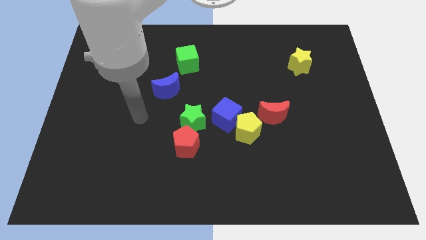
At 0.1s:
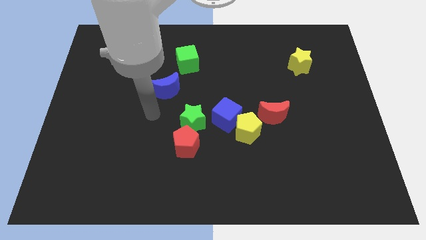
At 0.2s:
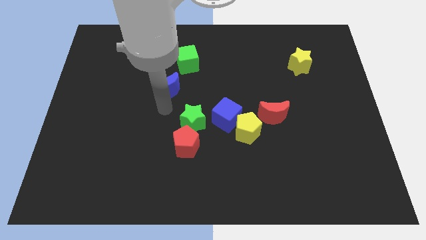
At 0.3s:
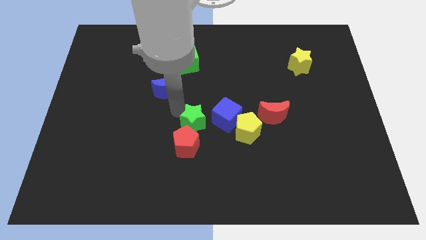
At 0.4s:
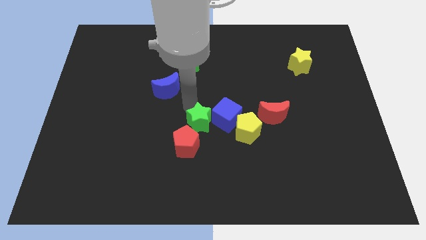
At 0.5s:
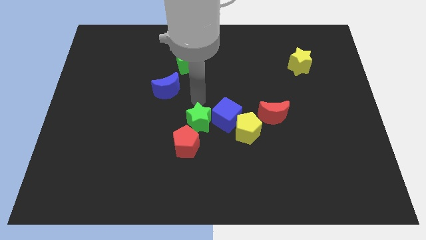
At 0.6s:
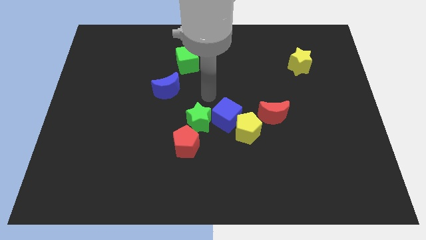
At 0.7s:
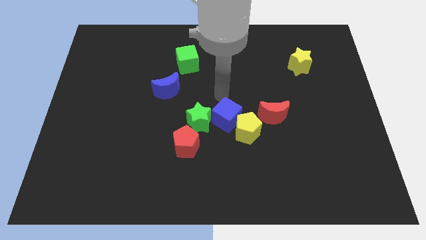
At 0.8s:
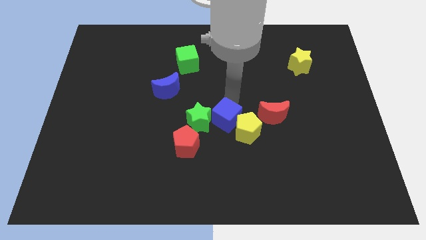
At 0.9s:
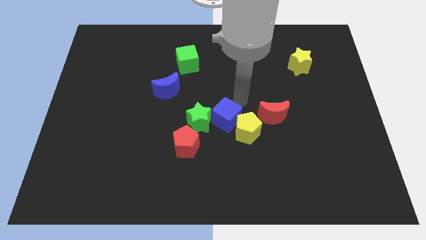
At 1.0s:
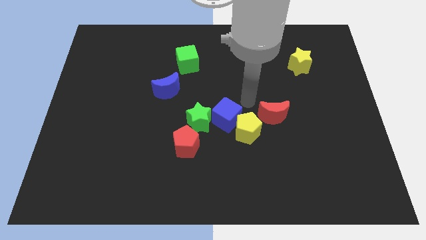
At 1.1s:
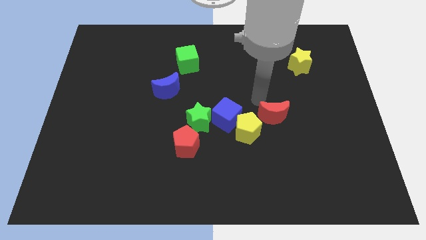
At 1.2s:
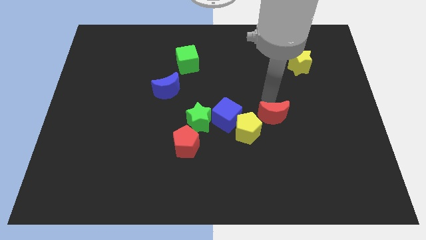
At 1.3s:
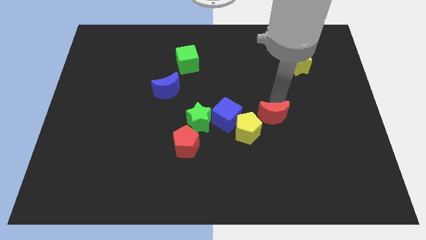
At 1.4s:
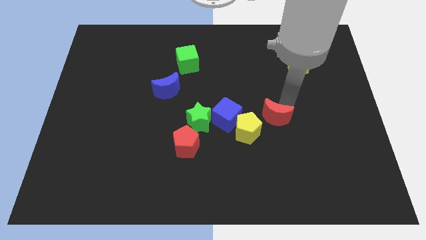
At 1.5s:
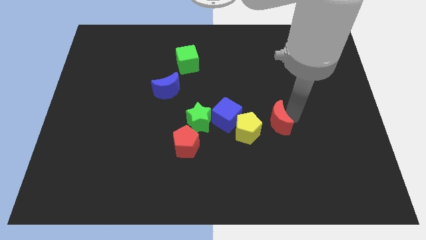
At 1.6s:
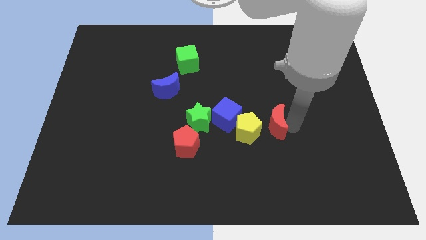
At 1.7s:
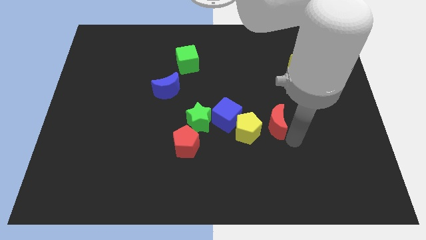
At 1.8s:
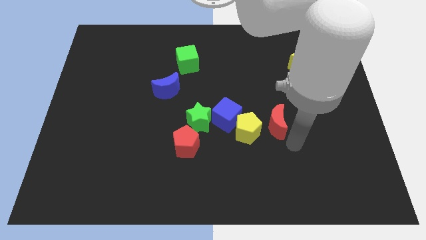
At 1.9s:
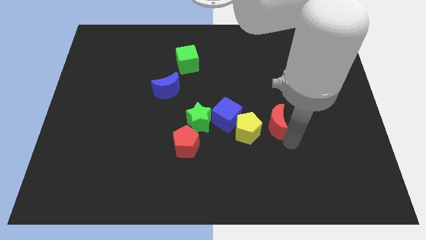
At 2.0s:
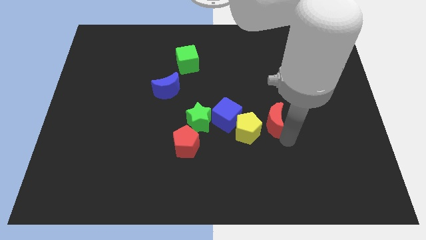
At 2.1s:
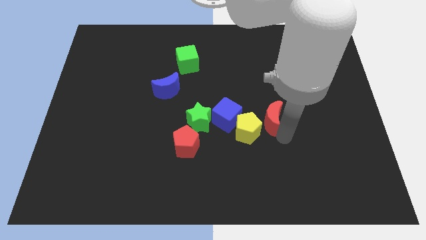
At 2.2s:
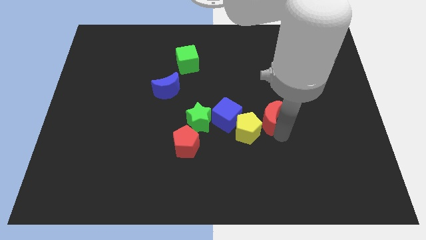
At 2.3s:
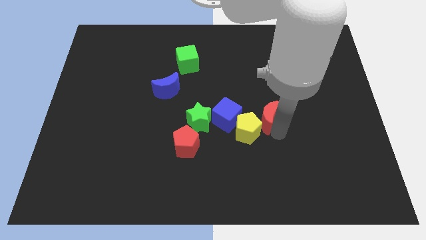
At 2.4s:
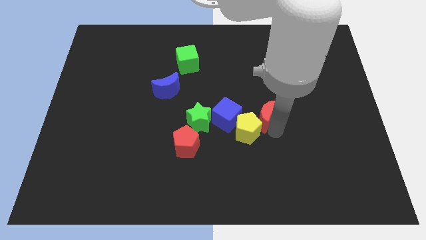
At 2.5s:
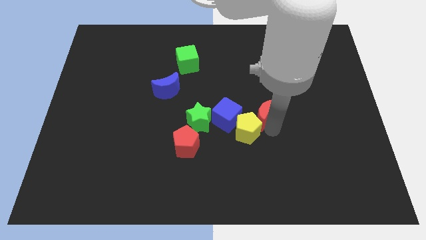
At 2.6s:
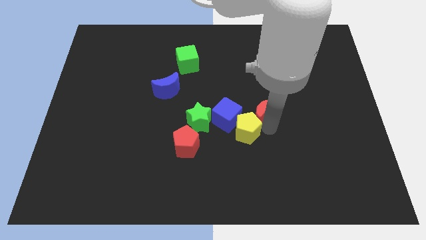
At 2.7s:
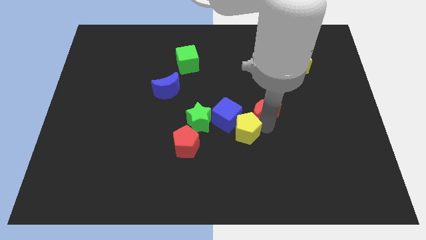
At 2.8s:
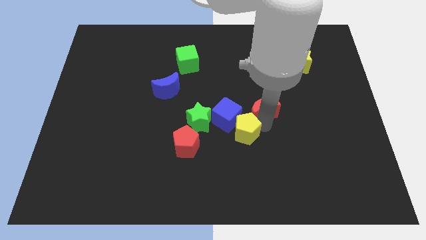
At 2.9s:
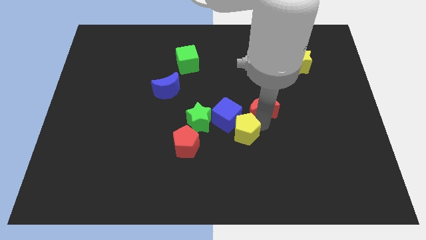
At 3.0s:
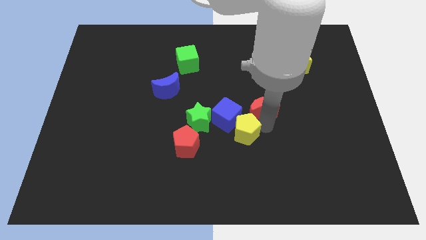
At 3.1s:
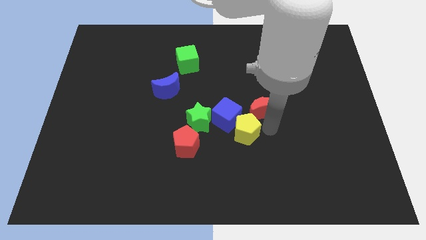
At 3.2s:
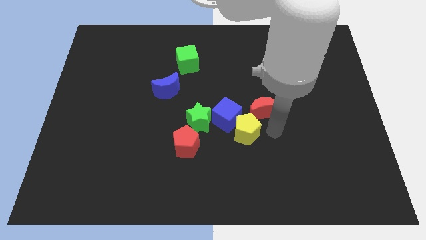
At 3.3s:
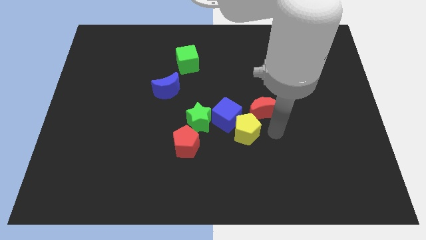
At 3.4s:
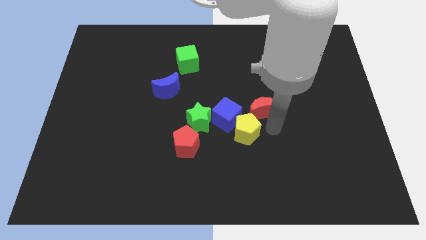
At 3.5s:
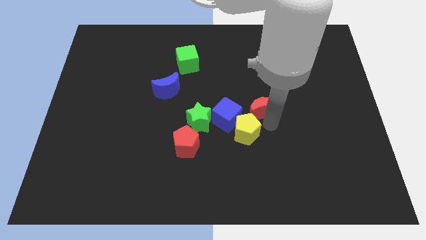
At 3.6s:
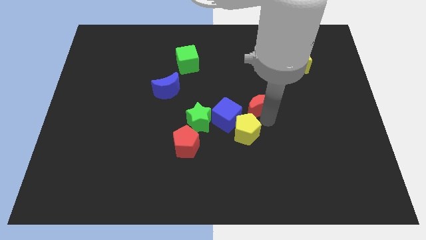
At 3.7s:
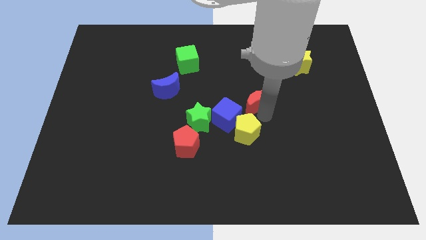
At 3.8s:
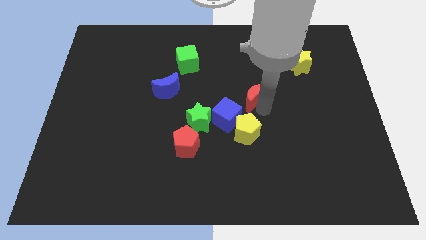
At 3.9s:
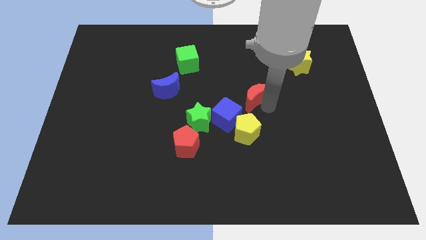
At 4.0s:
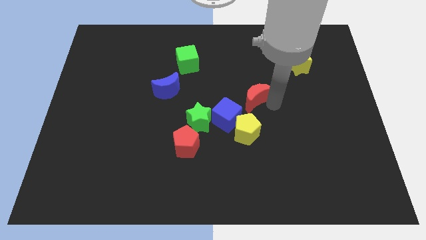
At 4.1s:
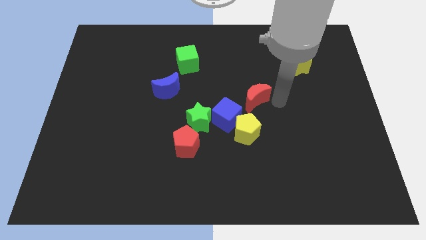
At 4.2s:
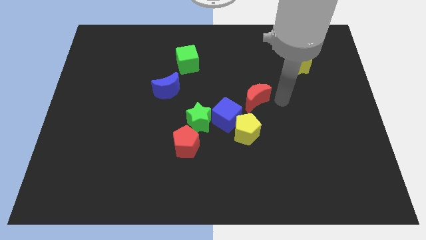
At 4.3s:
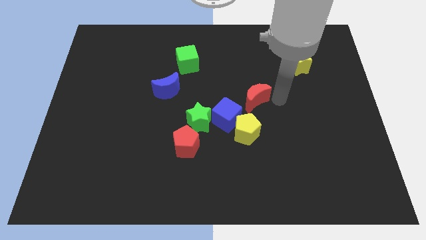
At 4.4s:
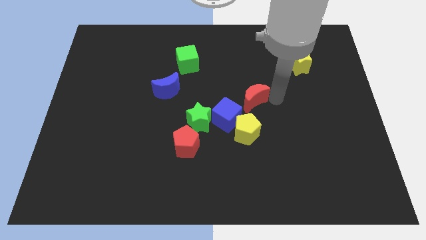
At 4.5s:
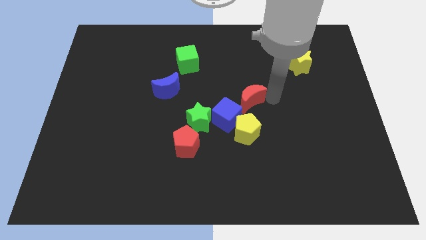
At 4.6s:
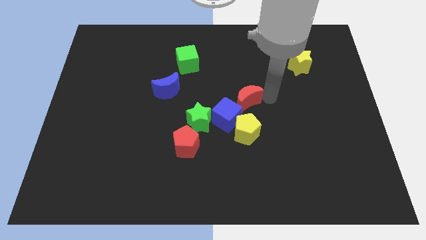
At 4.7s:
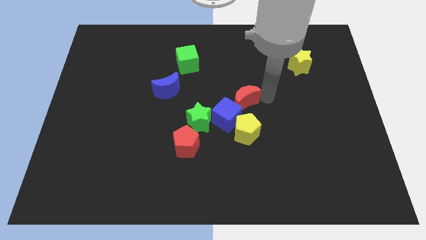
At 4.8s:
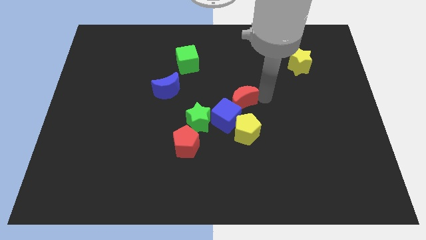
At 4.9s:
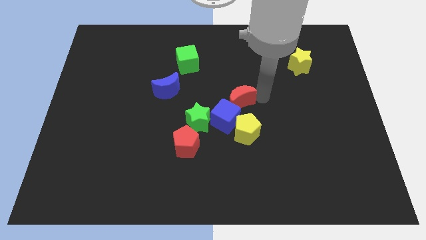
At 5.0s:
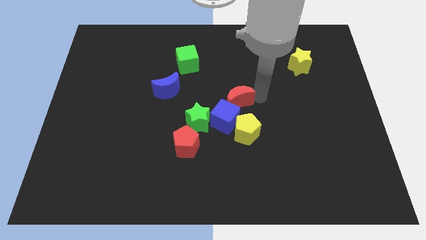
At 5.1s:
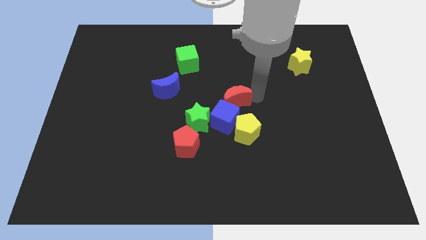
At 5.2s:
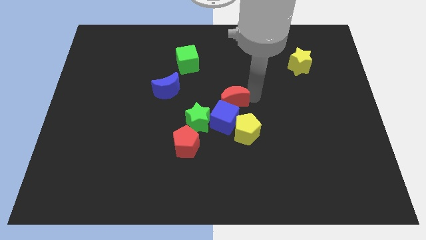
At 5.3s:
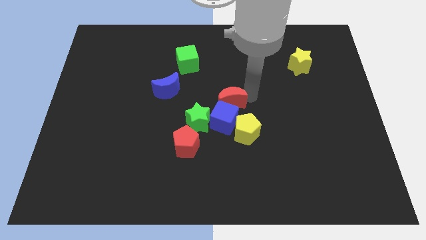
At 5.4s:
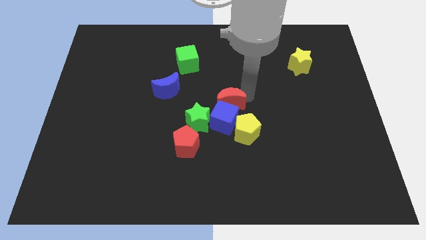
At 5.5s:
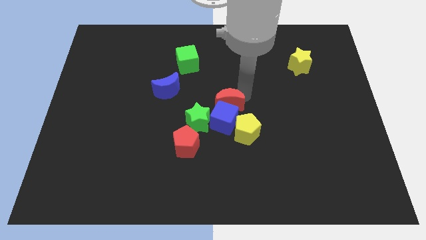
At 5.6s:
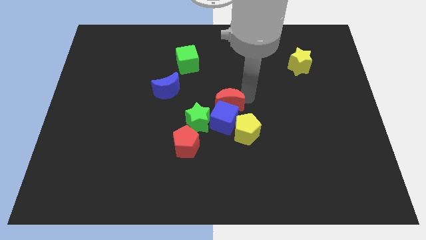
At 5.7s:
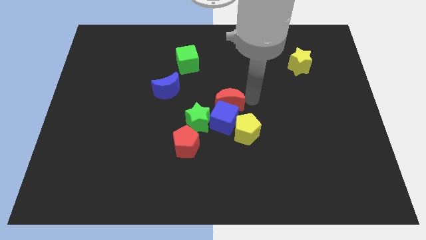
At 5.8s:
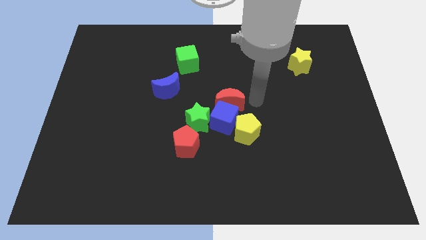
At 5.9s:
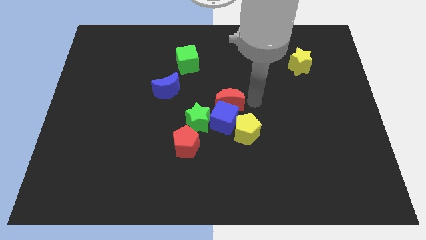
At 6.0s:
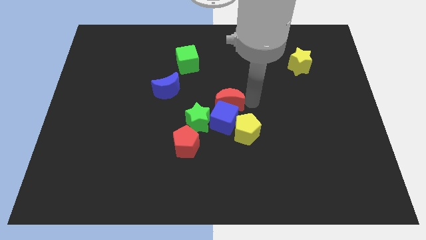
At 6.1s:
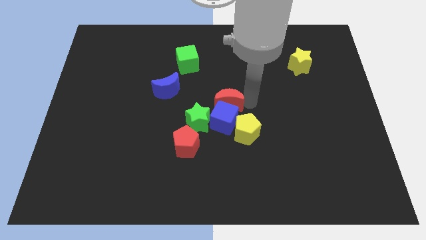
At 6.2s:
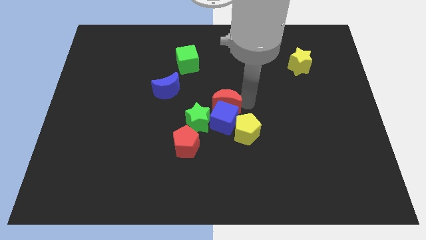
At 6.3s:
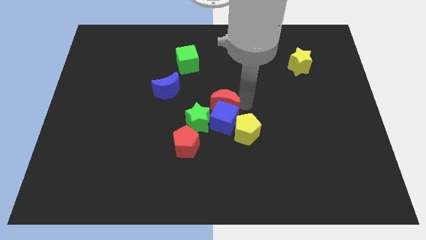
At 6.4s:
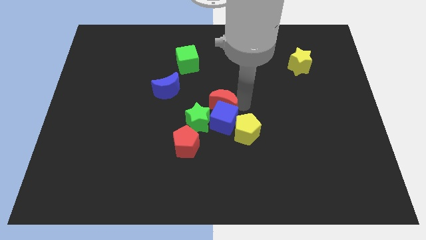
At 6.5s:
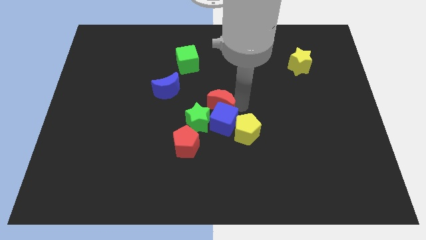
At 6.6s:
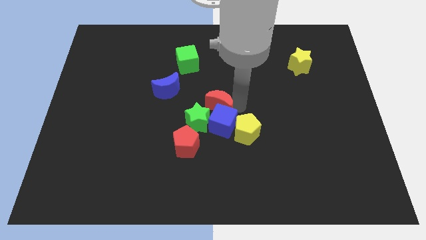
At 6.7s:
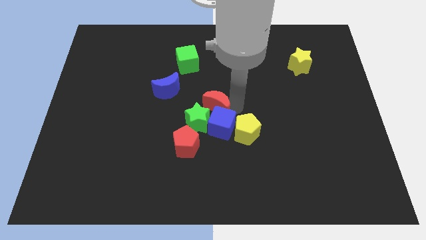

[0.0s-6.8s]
move the red moon next to the green star
